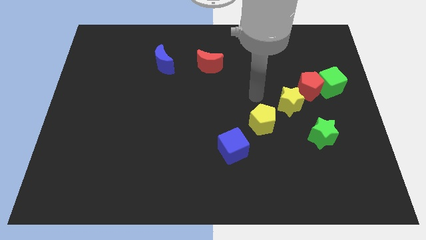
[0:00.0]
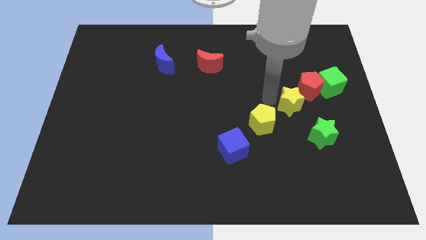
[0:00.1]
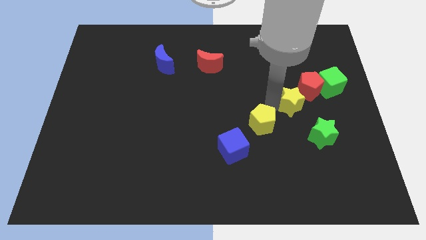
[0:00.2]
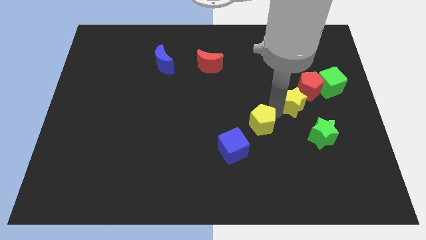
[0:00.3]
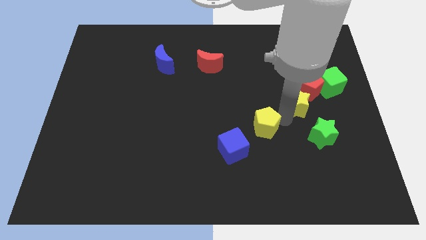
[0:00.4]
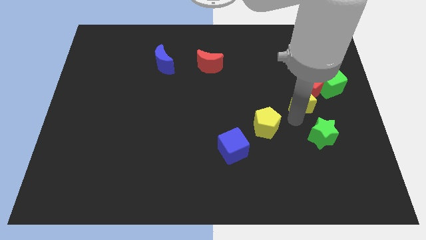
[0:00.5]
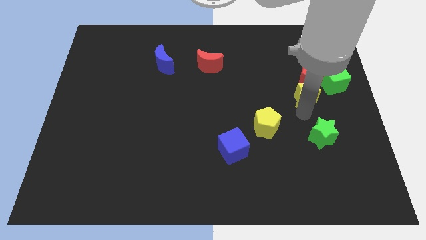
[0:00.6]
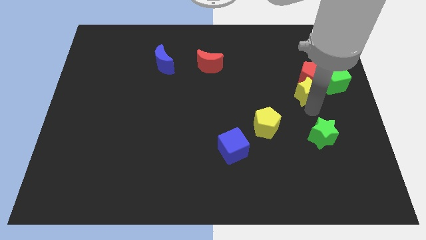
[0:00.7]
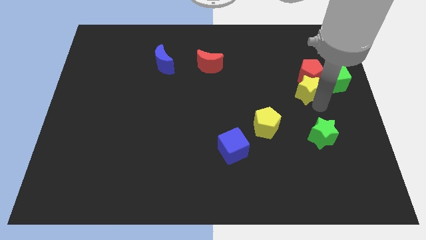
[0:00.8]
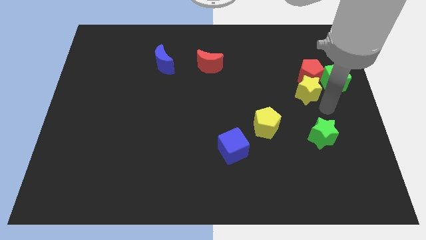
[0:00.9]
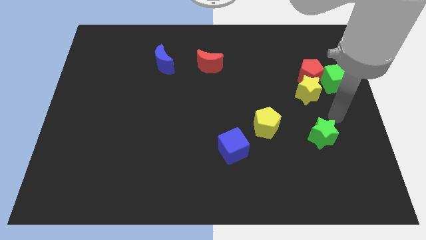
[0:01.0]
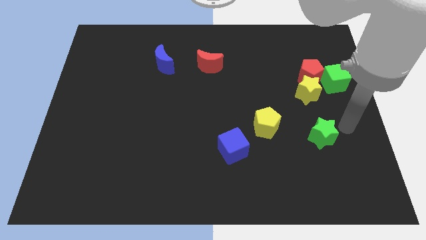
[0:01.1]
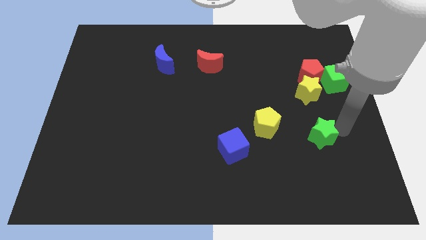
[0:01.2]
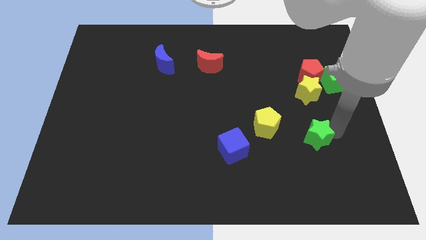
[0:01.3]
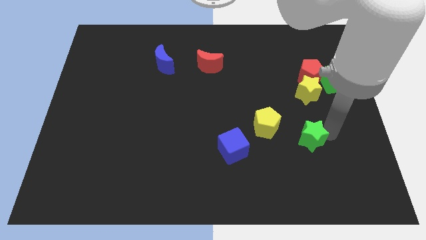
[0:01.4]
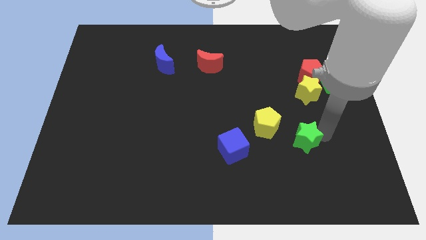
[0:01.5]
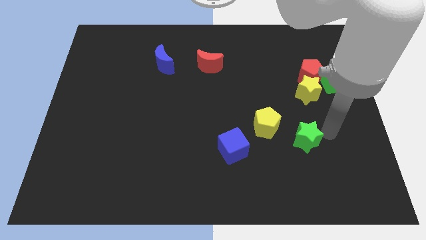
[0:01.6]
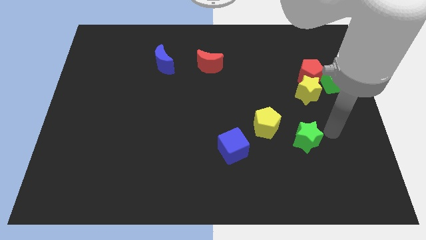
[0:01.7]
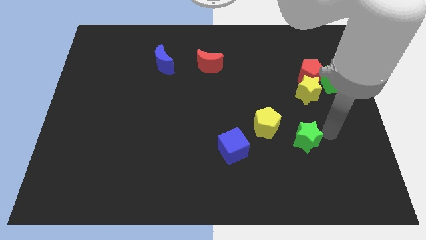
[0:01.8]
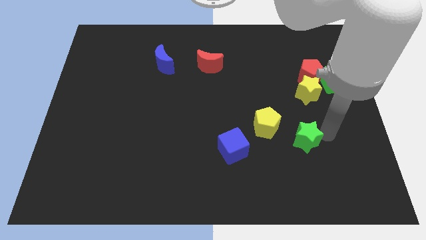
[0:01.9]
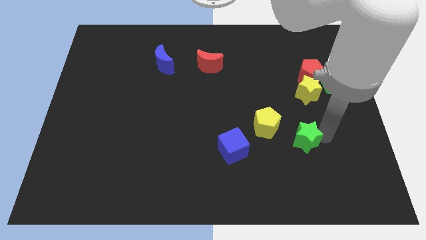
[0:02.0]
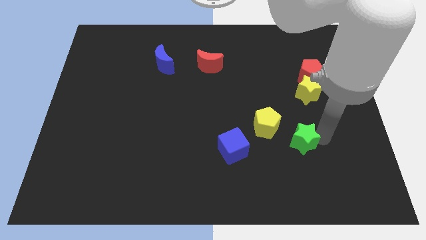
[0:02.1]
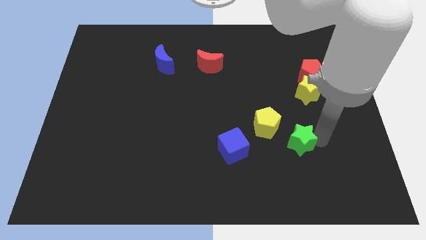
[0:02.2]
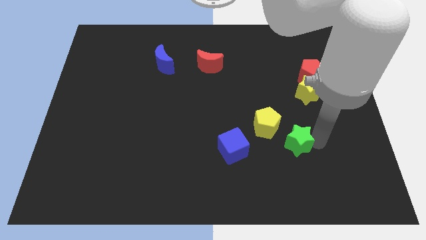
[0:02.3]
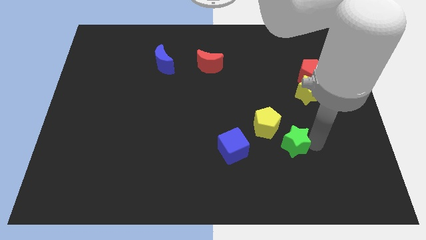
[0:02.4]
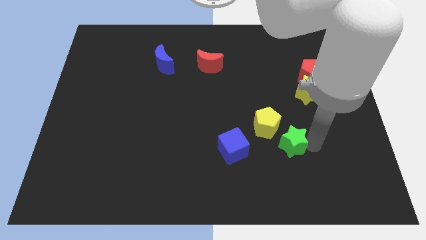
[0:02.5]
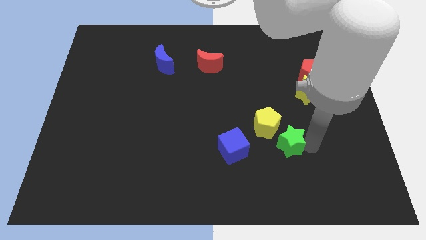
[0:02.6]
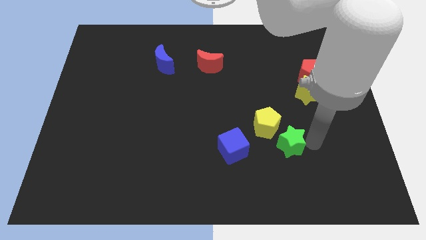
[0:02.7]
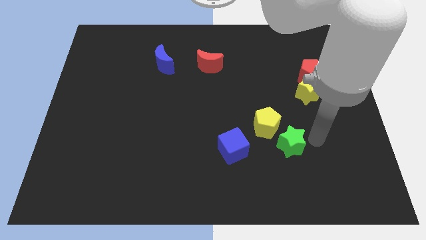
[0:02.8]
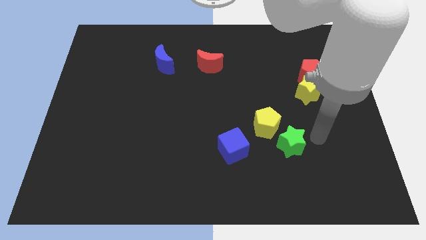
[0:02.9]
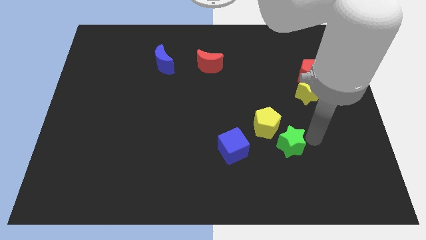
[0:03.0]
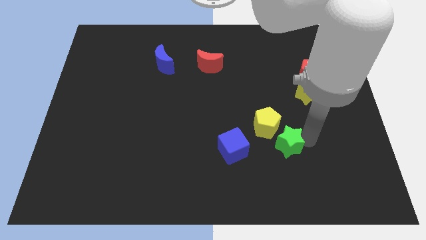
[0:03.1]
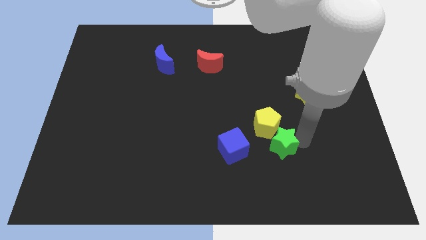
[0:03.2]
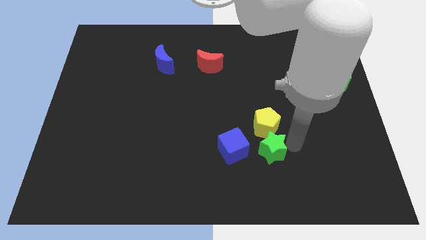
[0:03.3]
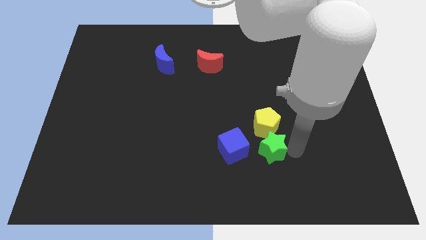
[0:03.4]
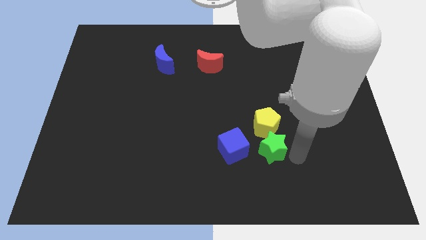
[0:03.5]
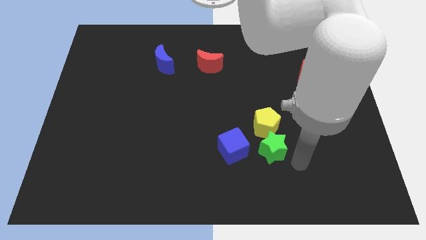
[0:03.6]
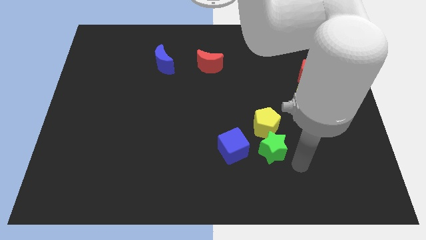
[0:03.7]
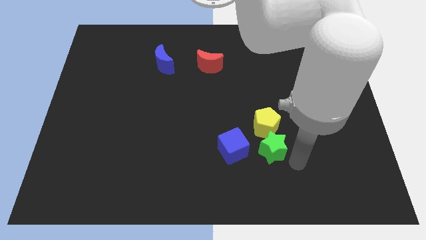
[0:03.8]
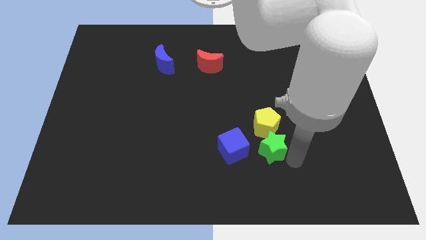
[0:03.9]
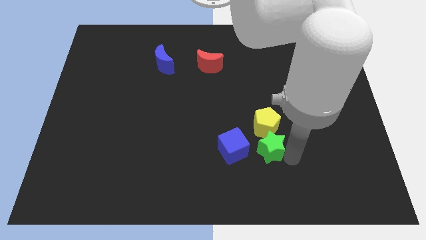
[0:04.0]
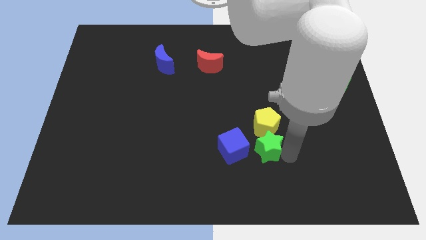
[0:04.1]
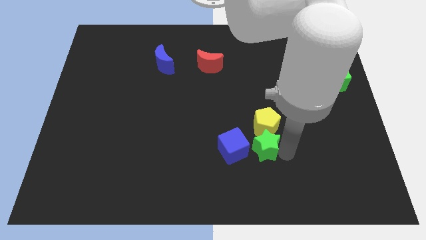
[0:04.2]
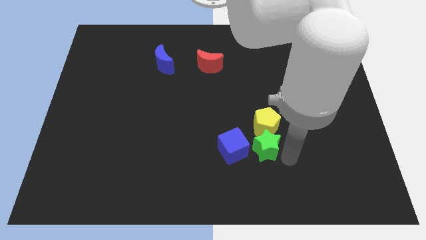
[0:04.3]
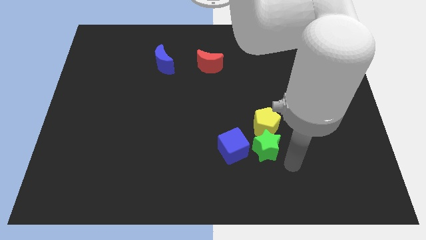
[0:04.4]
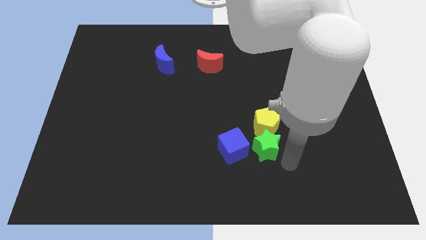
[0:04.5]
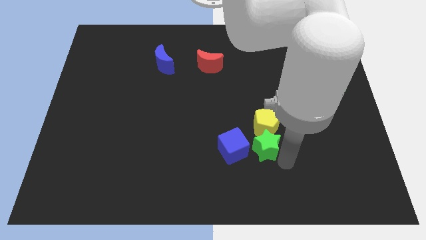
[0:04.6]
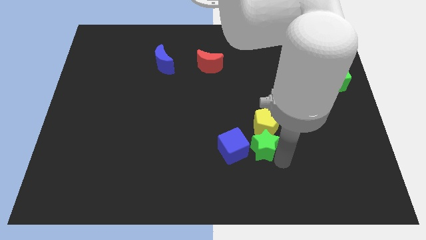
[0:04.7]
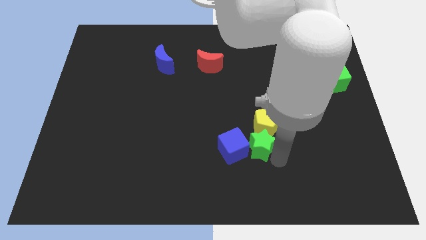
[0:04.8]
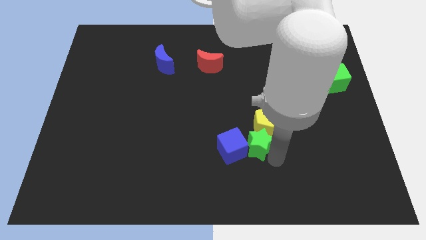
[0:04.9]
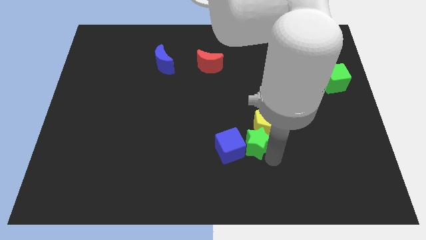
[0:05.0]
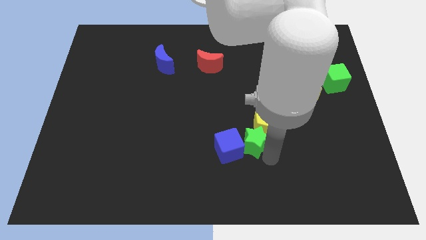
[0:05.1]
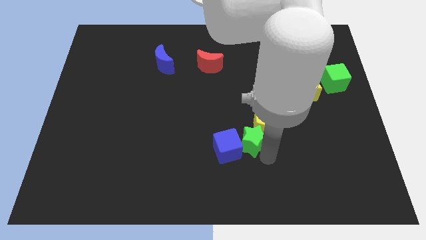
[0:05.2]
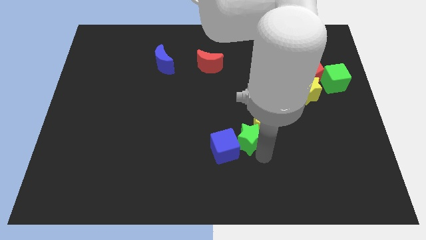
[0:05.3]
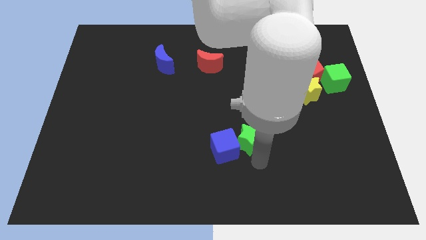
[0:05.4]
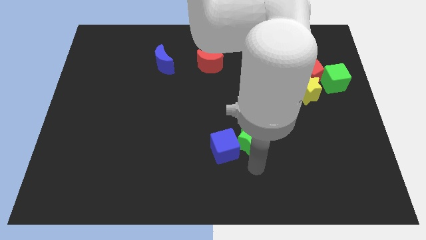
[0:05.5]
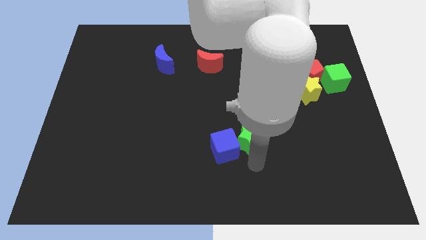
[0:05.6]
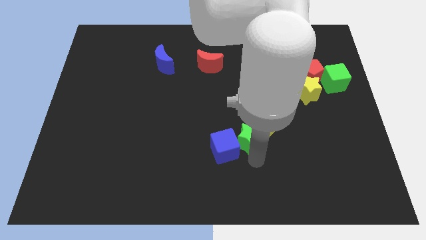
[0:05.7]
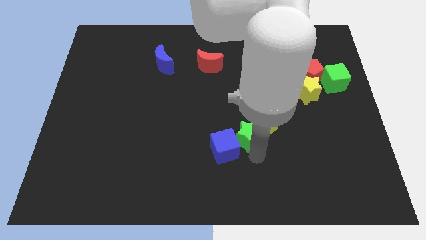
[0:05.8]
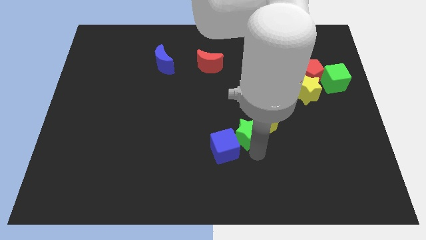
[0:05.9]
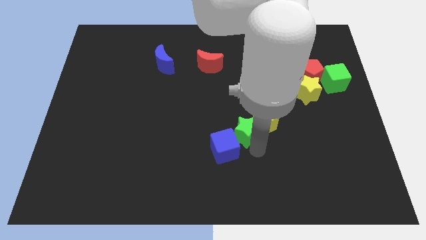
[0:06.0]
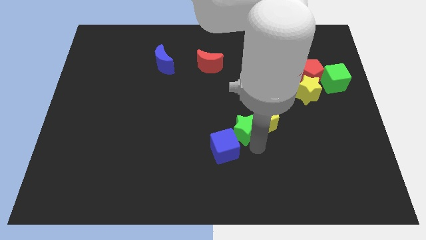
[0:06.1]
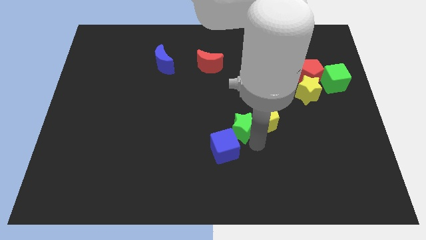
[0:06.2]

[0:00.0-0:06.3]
slide the green star somewhat upwards and to the left

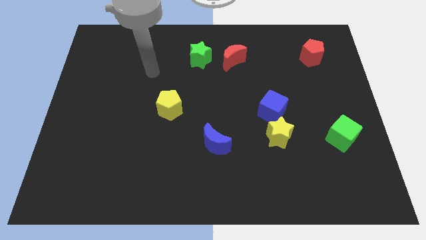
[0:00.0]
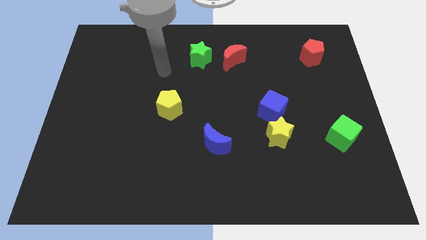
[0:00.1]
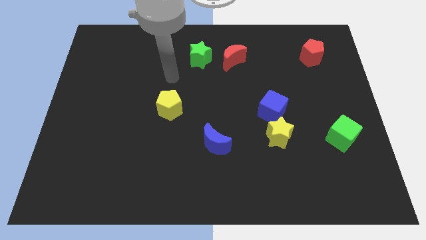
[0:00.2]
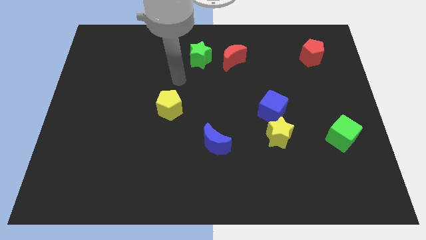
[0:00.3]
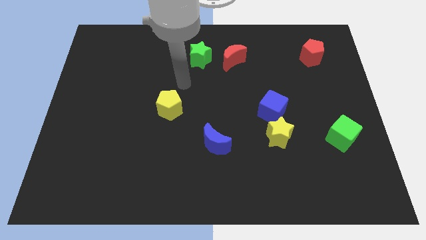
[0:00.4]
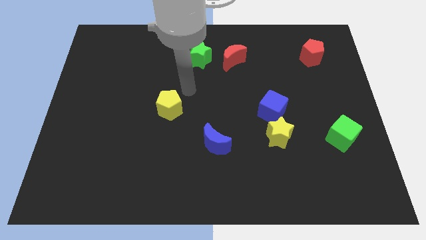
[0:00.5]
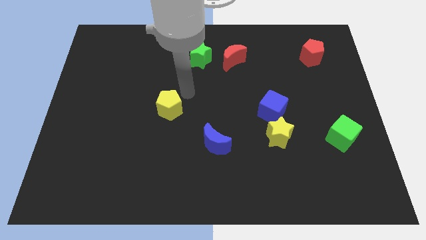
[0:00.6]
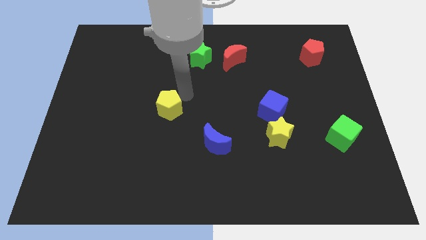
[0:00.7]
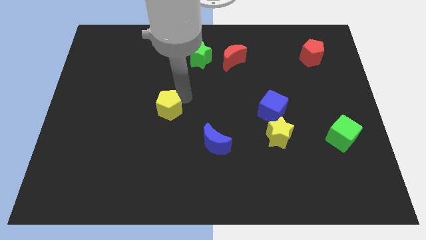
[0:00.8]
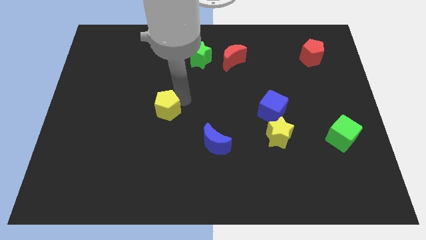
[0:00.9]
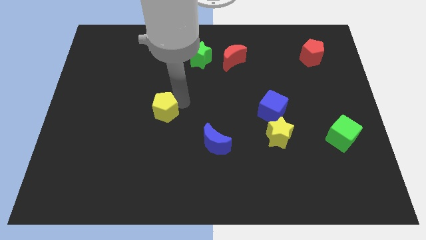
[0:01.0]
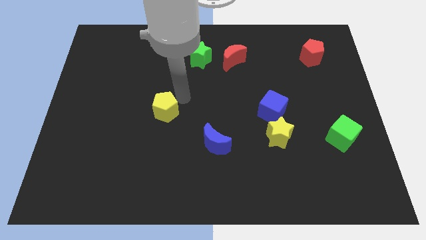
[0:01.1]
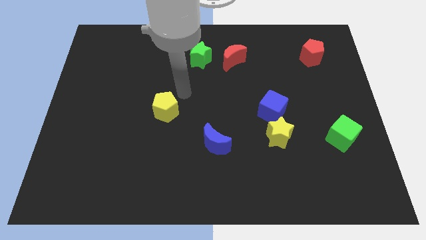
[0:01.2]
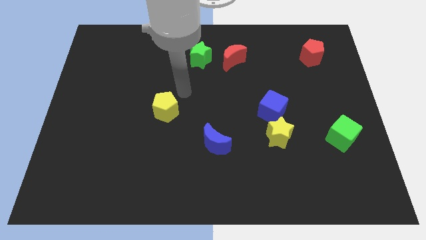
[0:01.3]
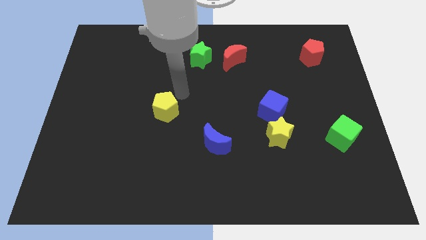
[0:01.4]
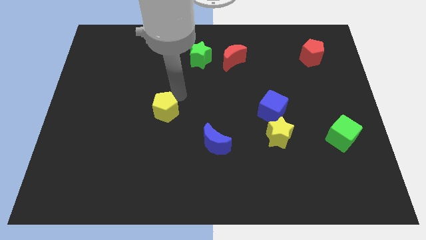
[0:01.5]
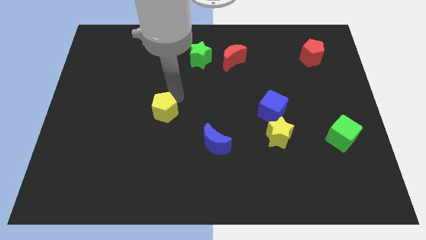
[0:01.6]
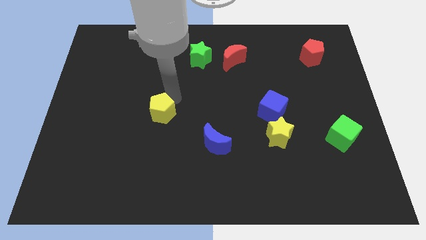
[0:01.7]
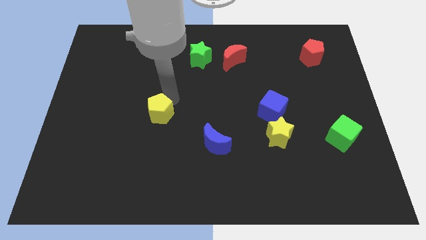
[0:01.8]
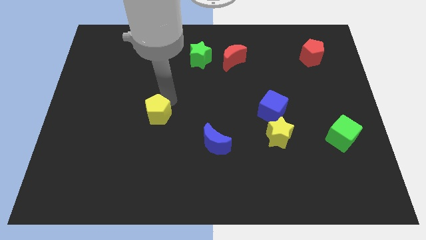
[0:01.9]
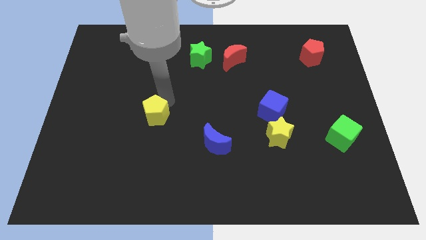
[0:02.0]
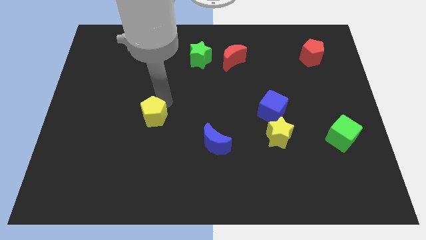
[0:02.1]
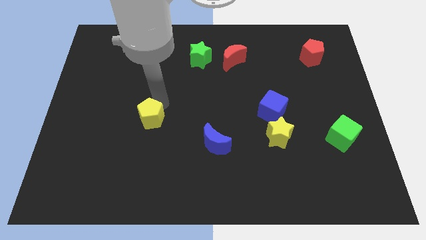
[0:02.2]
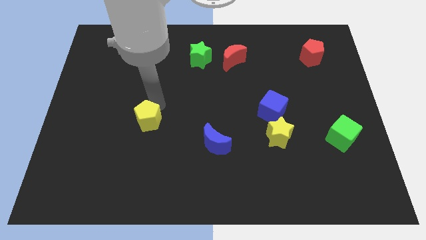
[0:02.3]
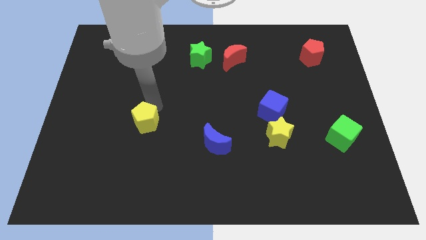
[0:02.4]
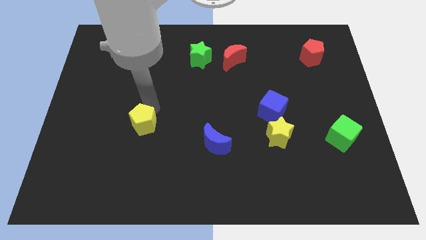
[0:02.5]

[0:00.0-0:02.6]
move the yellow pentagon downwards and then left somewhat
